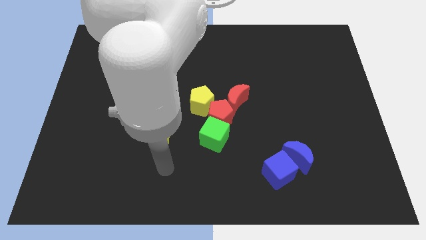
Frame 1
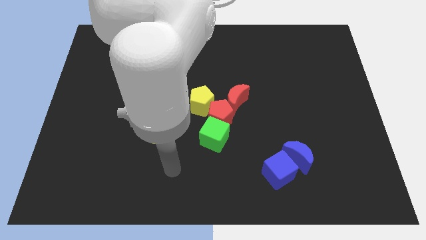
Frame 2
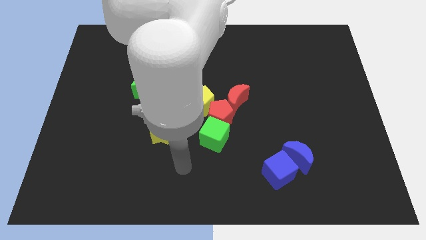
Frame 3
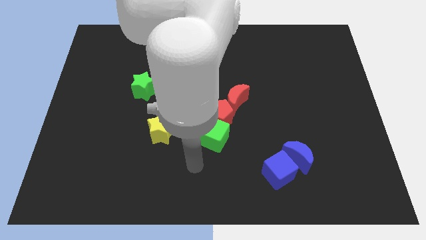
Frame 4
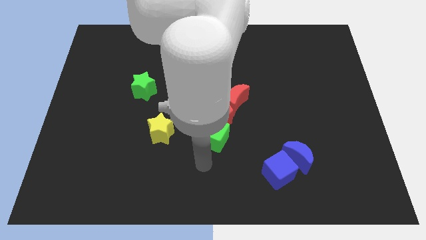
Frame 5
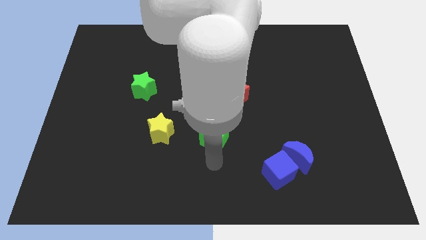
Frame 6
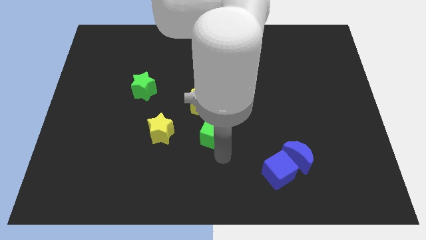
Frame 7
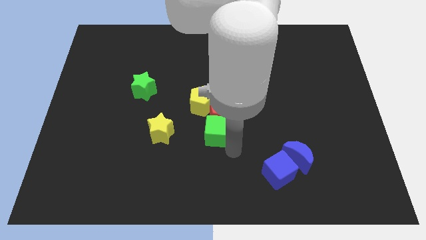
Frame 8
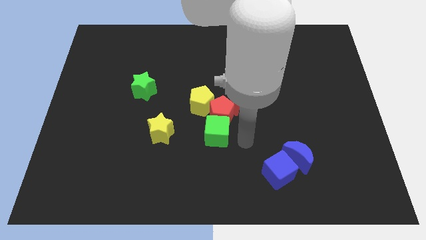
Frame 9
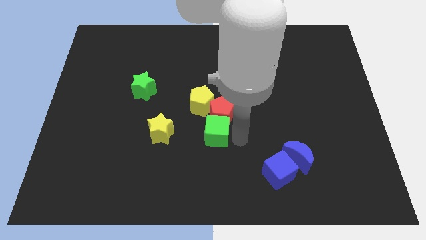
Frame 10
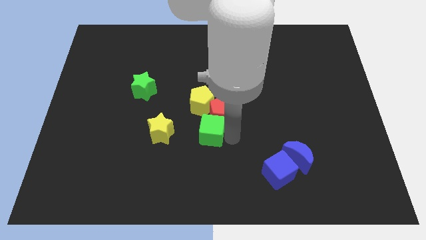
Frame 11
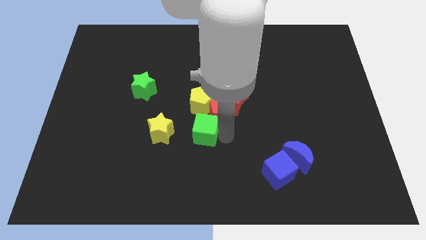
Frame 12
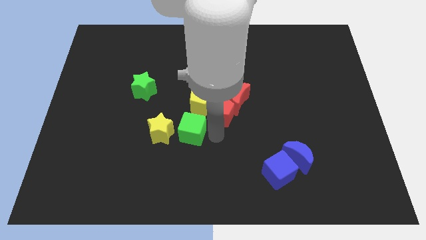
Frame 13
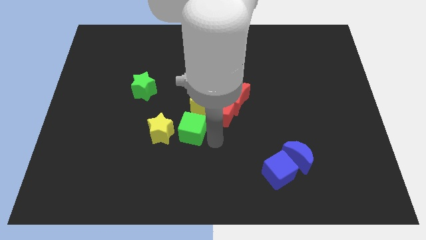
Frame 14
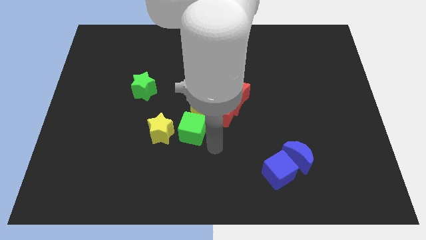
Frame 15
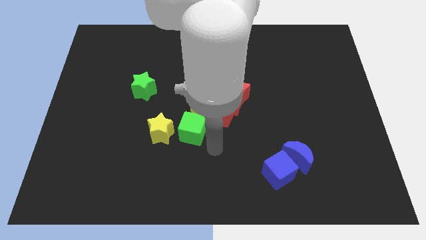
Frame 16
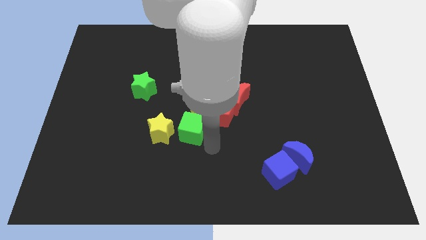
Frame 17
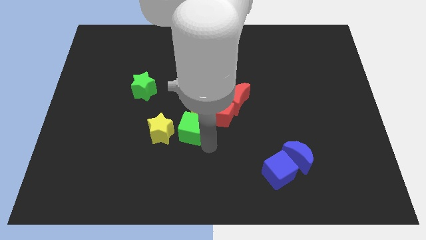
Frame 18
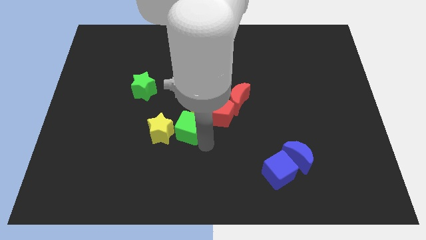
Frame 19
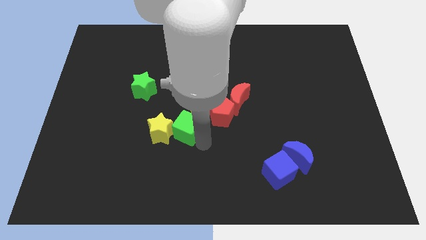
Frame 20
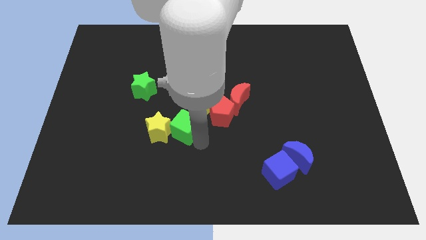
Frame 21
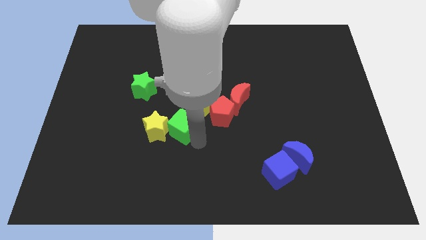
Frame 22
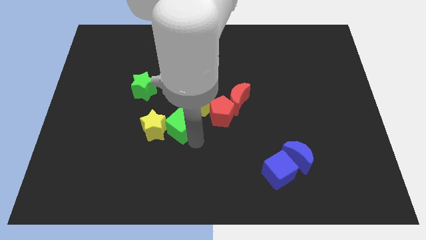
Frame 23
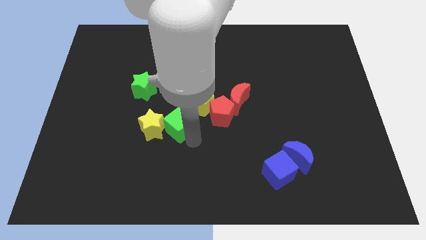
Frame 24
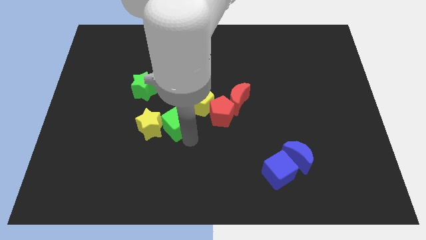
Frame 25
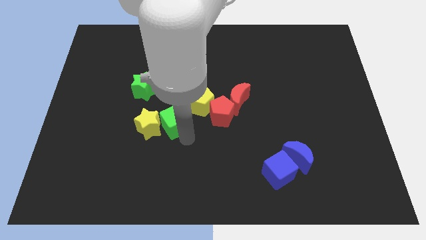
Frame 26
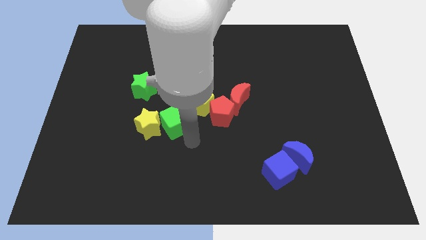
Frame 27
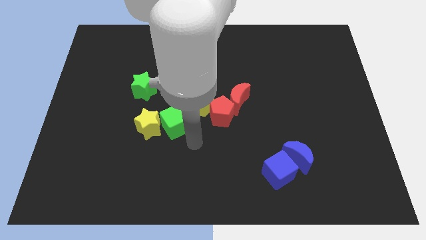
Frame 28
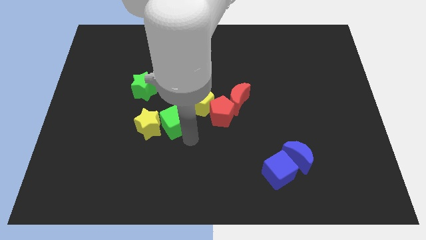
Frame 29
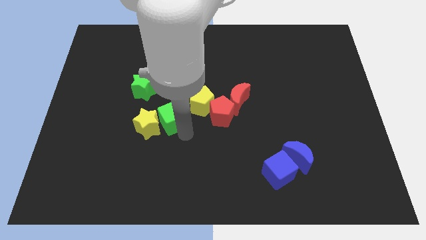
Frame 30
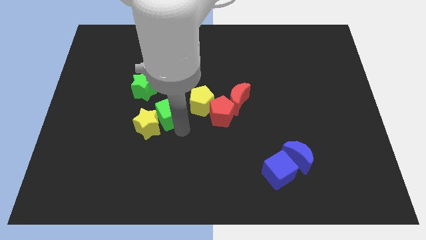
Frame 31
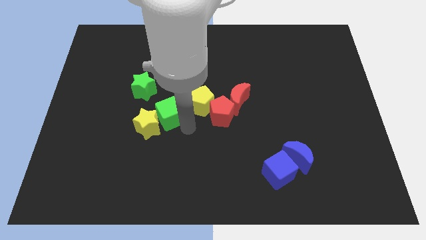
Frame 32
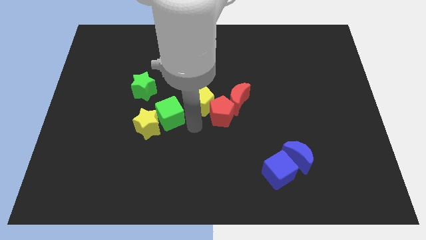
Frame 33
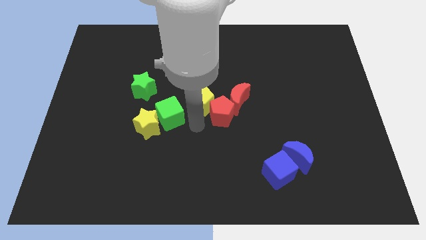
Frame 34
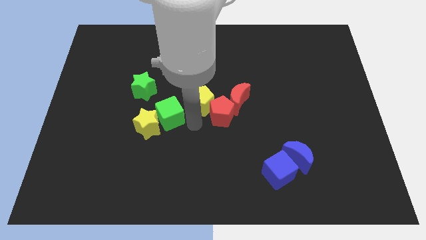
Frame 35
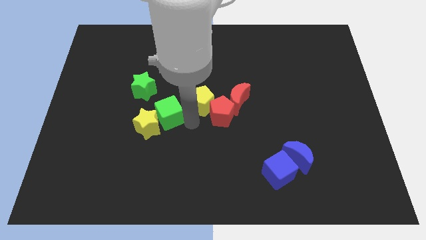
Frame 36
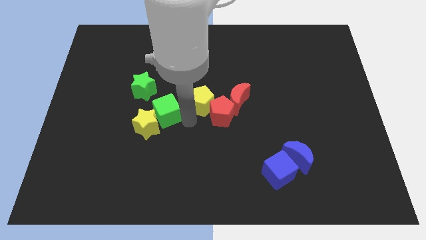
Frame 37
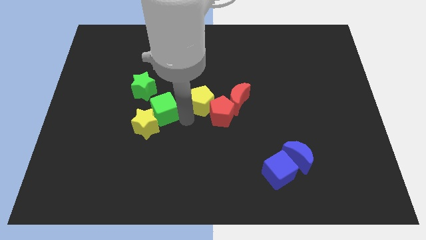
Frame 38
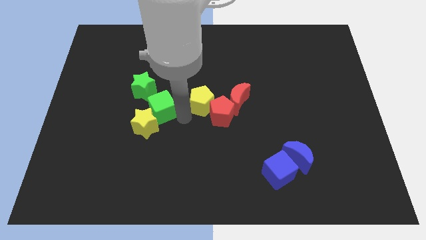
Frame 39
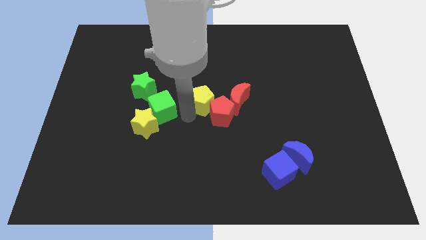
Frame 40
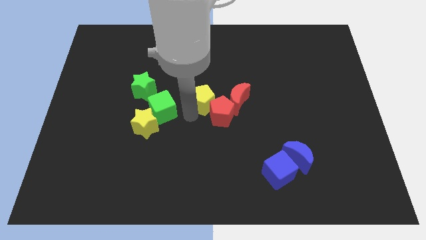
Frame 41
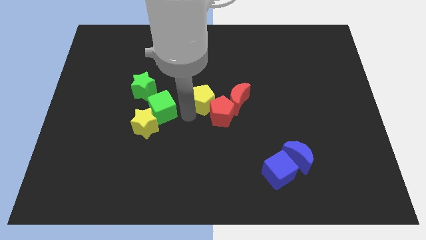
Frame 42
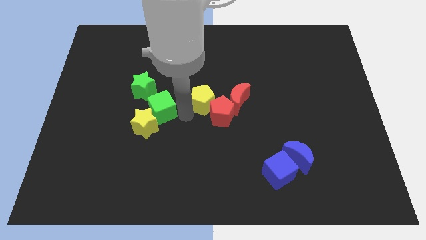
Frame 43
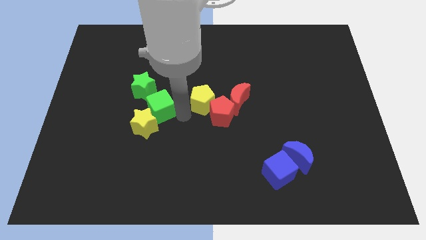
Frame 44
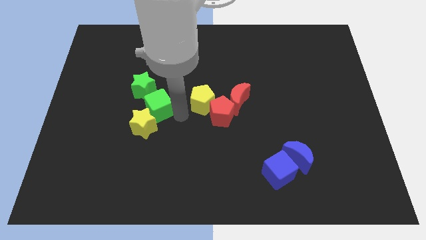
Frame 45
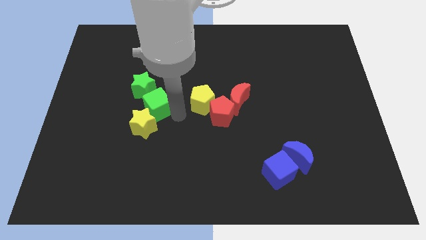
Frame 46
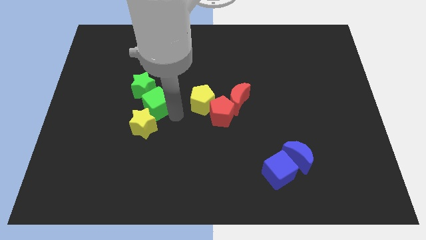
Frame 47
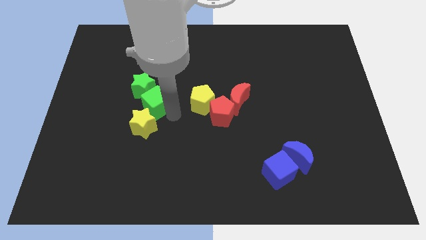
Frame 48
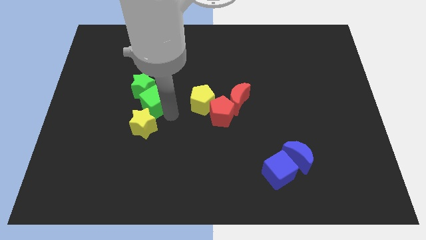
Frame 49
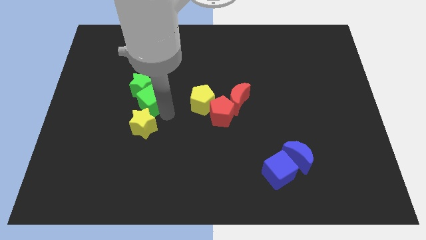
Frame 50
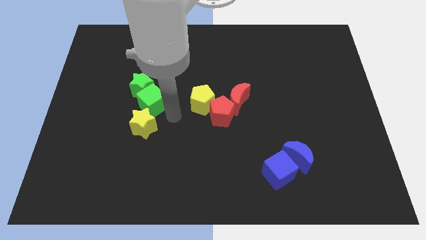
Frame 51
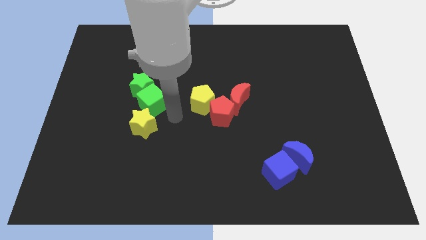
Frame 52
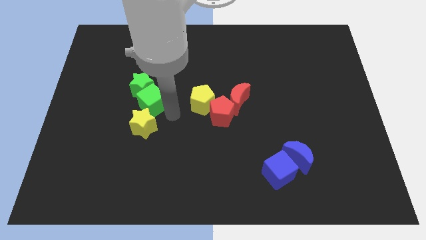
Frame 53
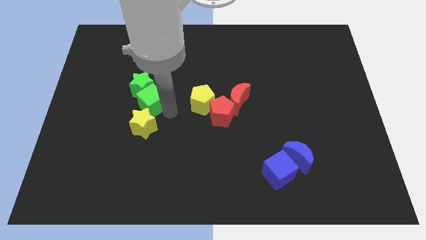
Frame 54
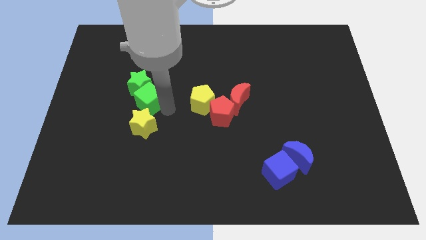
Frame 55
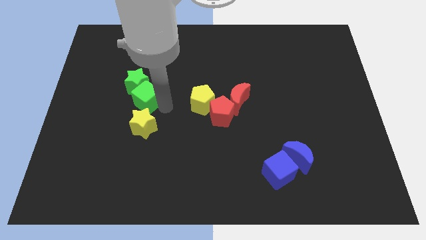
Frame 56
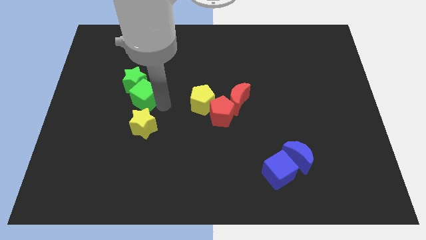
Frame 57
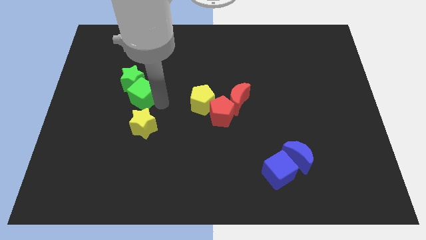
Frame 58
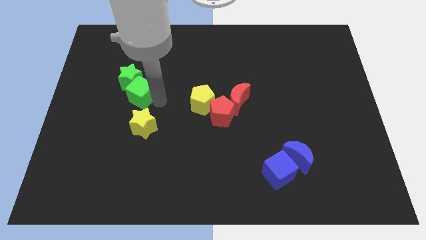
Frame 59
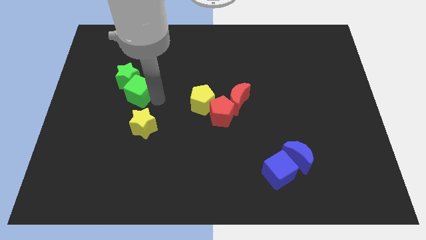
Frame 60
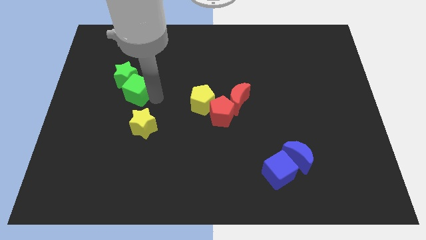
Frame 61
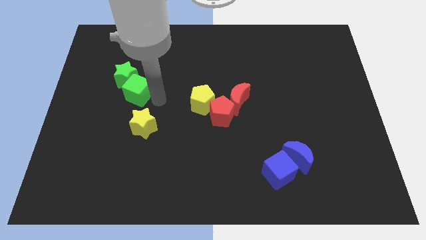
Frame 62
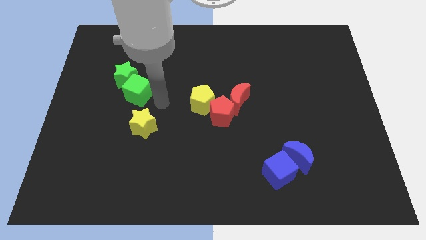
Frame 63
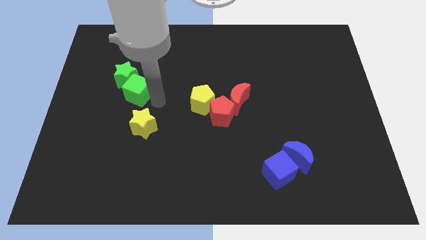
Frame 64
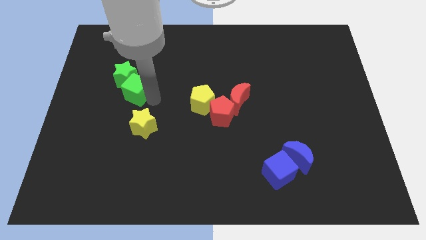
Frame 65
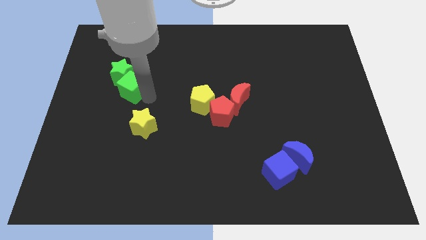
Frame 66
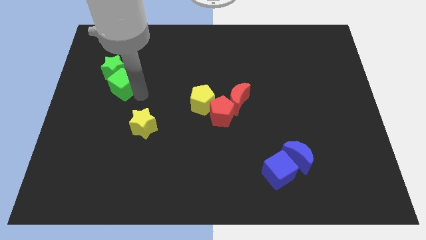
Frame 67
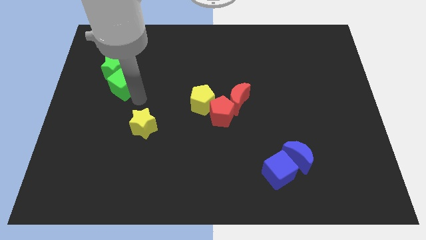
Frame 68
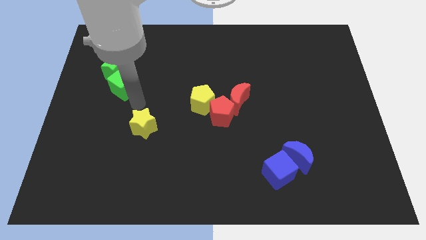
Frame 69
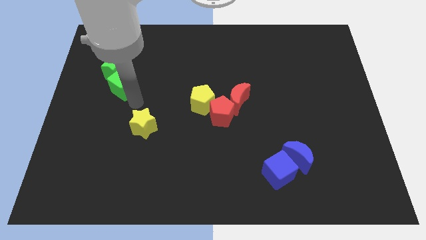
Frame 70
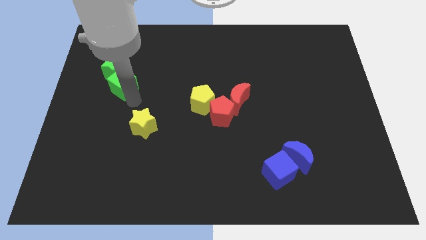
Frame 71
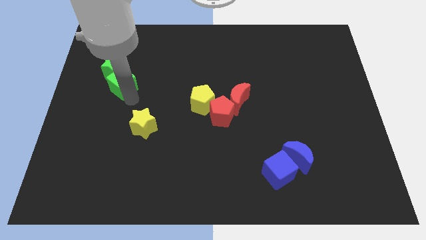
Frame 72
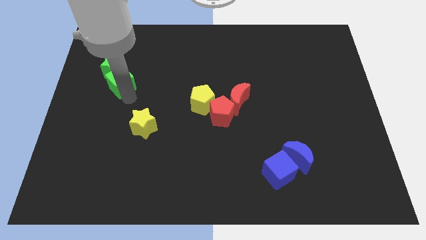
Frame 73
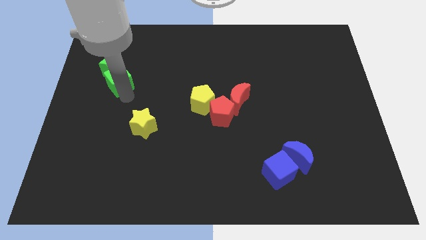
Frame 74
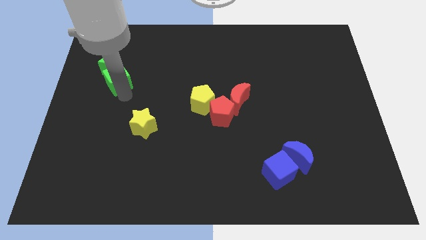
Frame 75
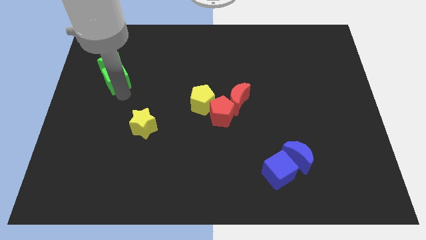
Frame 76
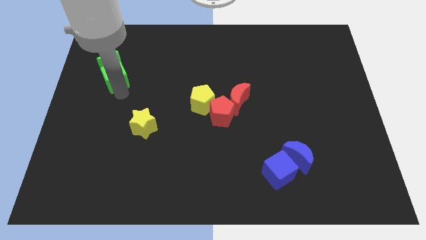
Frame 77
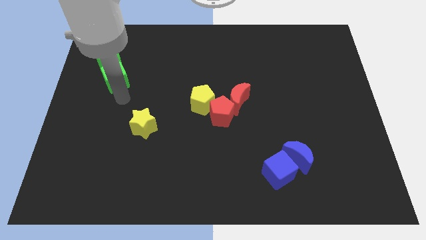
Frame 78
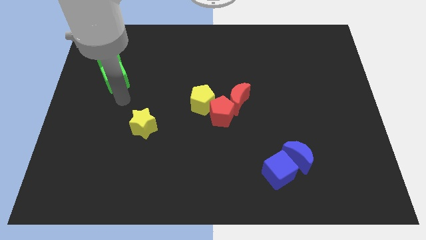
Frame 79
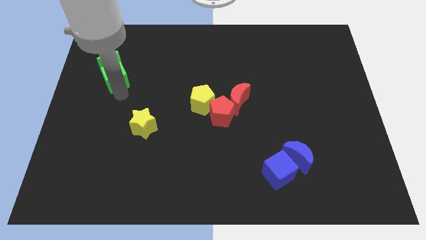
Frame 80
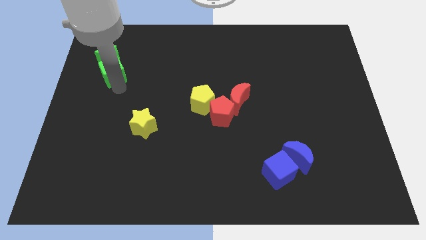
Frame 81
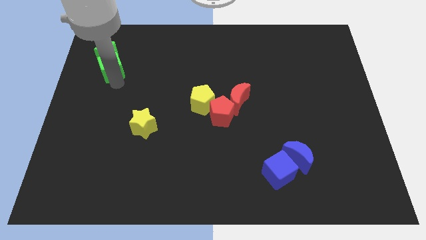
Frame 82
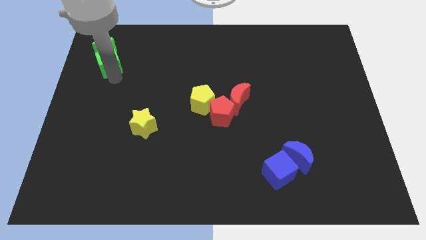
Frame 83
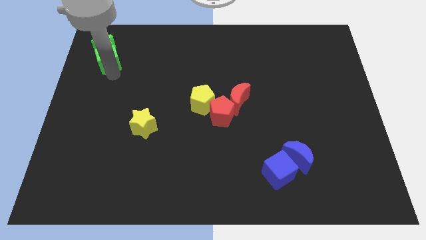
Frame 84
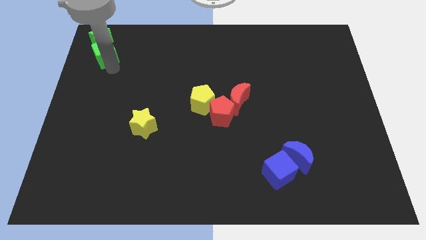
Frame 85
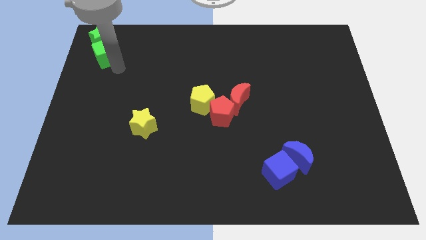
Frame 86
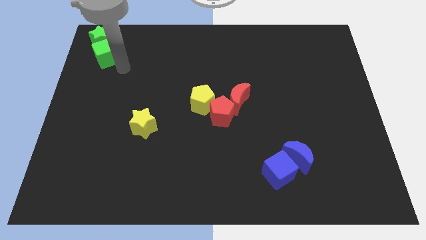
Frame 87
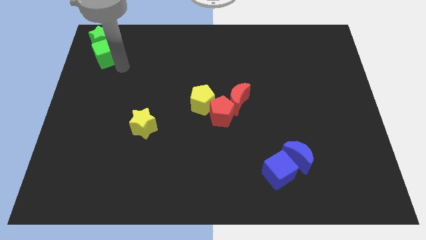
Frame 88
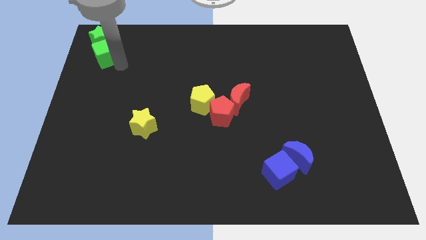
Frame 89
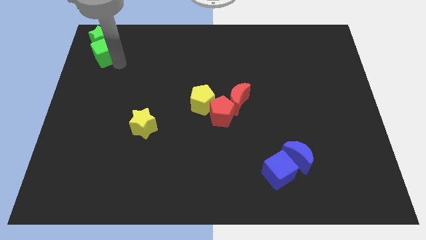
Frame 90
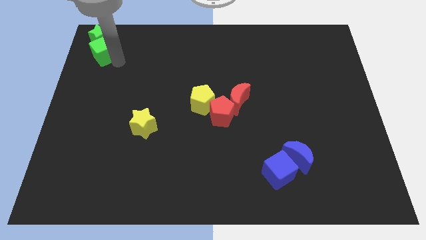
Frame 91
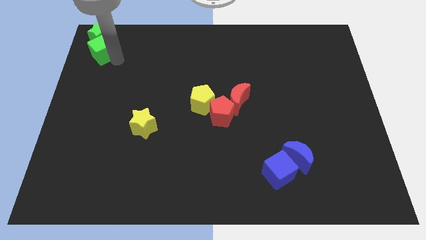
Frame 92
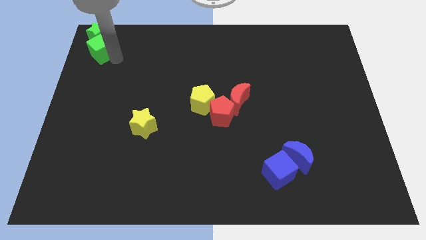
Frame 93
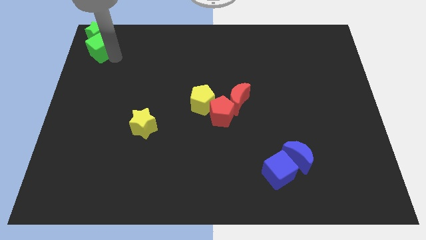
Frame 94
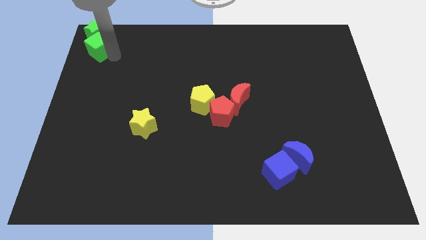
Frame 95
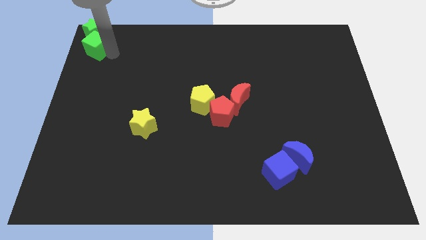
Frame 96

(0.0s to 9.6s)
put the green cube to the top left of the board
